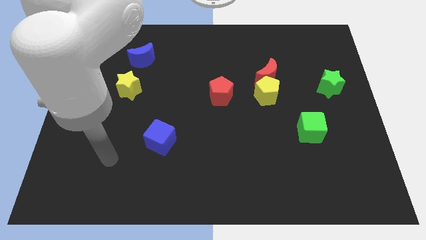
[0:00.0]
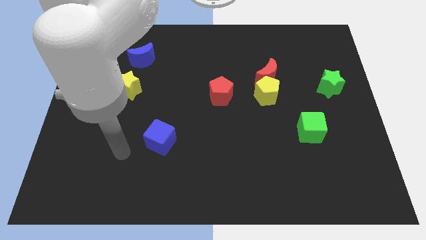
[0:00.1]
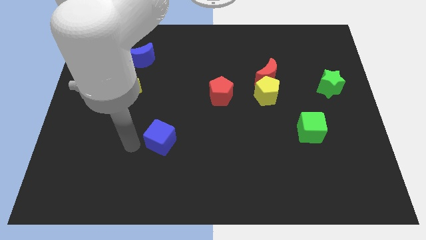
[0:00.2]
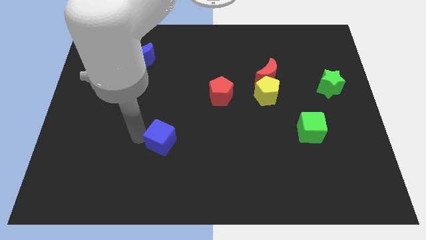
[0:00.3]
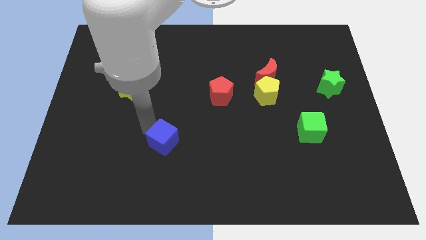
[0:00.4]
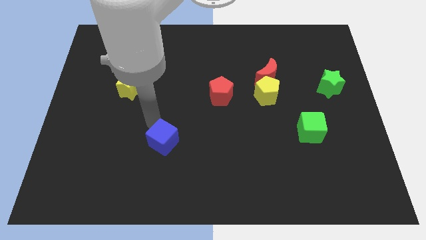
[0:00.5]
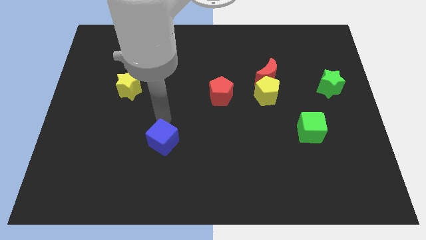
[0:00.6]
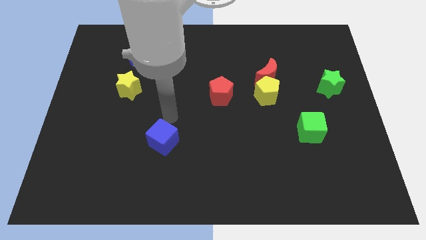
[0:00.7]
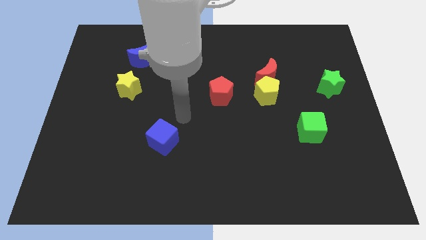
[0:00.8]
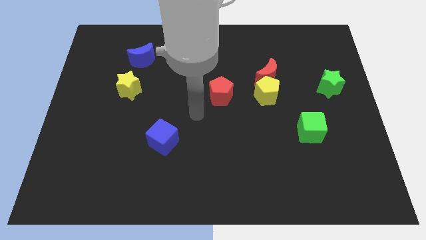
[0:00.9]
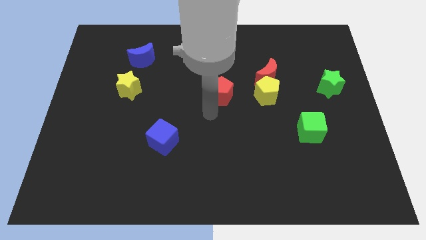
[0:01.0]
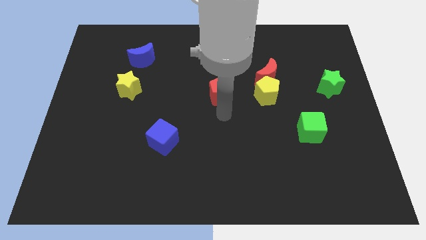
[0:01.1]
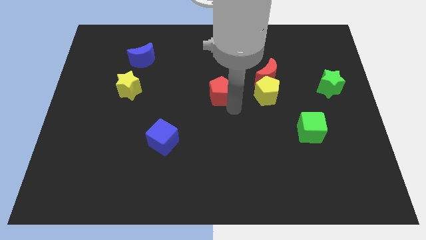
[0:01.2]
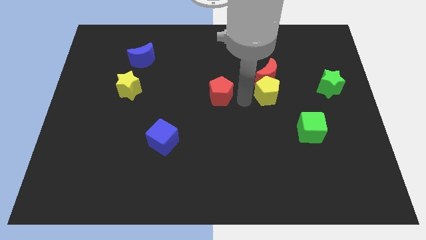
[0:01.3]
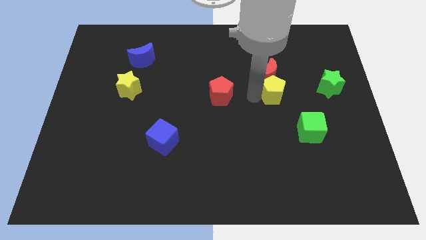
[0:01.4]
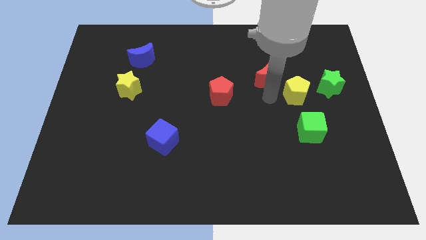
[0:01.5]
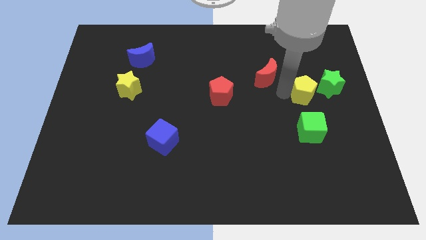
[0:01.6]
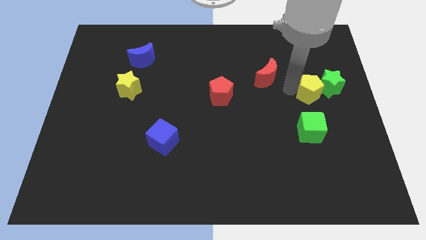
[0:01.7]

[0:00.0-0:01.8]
pull the red moon apart from the yellow pentagon

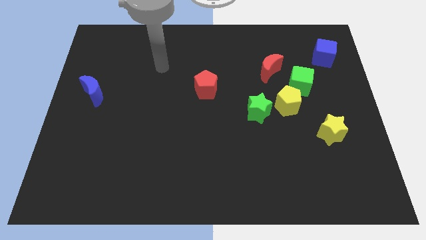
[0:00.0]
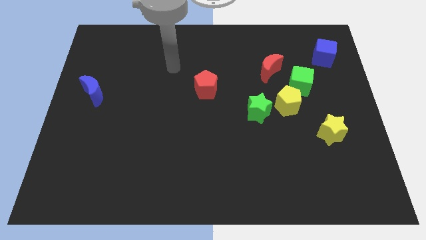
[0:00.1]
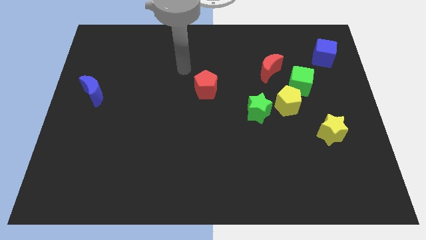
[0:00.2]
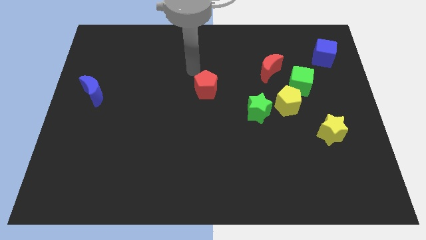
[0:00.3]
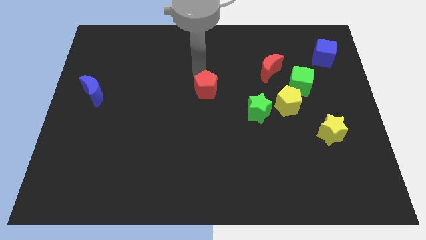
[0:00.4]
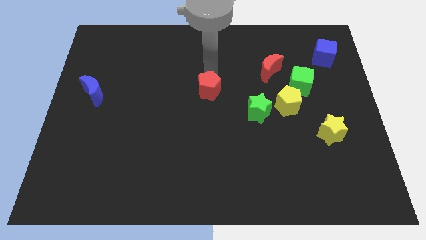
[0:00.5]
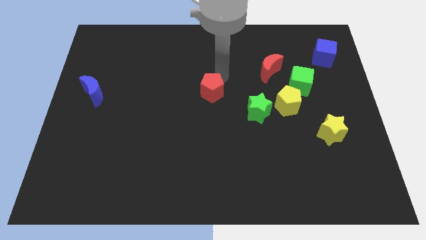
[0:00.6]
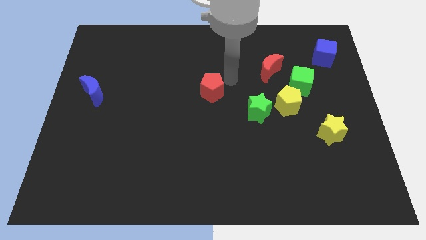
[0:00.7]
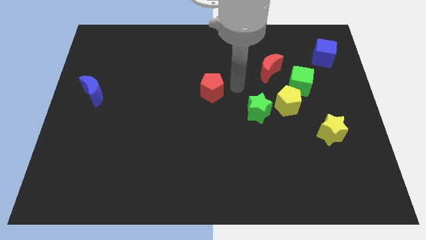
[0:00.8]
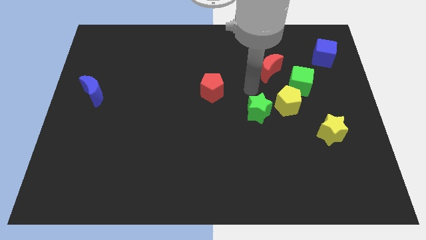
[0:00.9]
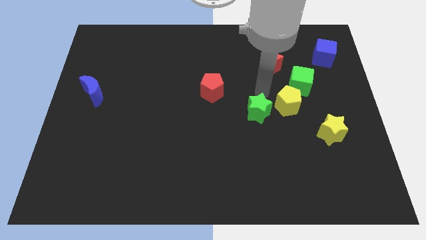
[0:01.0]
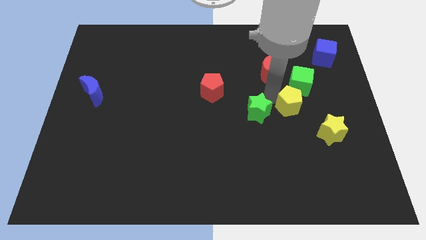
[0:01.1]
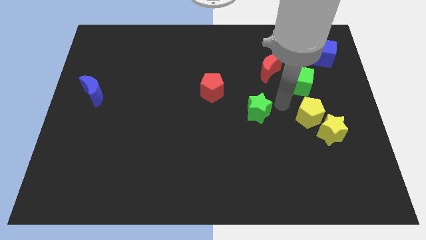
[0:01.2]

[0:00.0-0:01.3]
separate the green star from the yellow pentagon

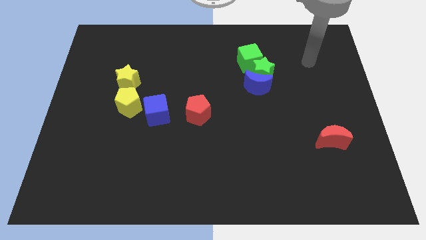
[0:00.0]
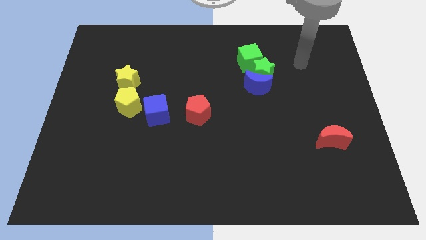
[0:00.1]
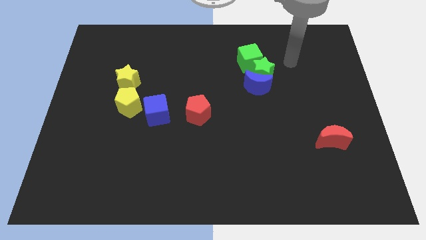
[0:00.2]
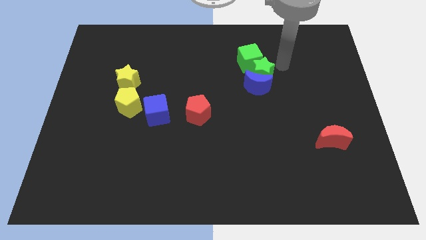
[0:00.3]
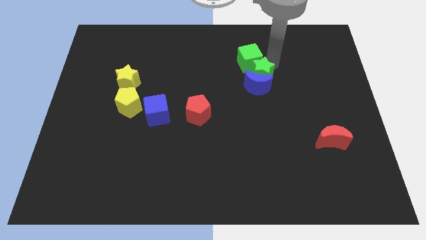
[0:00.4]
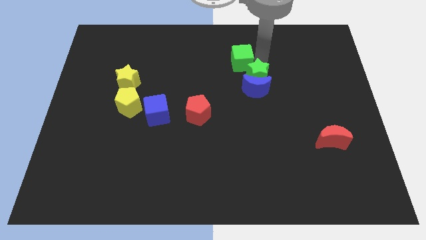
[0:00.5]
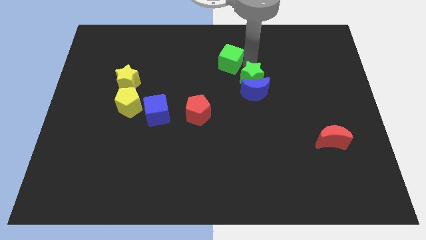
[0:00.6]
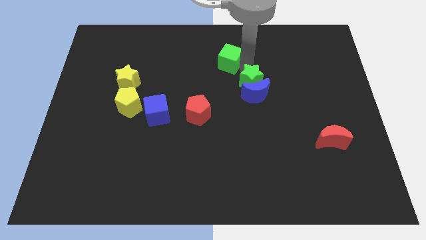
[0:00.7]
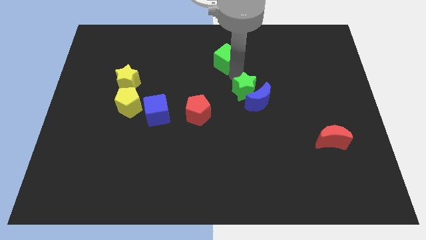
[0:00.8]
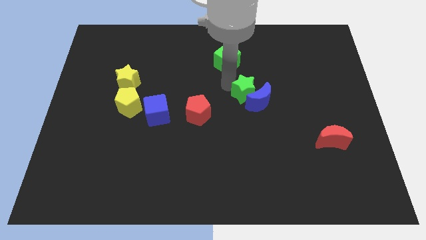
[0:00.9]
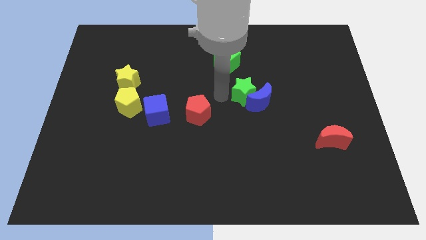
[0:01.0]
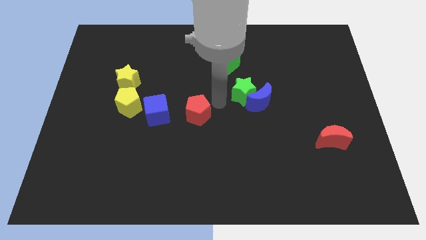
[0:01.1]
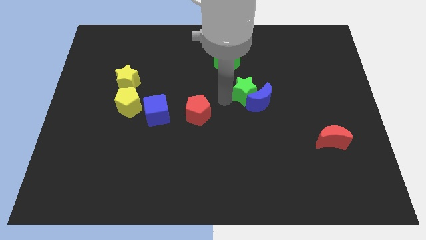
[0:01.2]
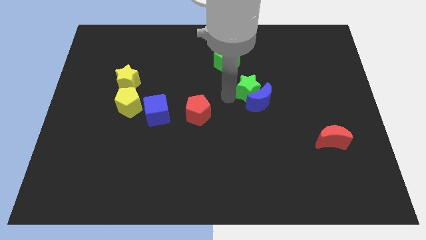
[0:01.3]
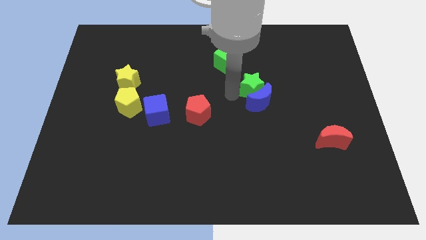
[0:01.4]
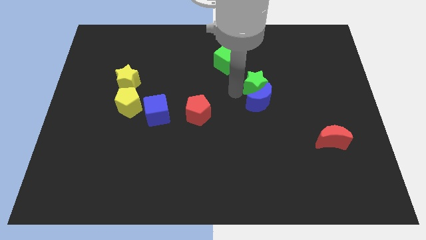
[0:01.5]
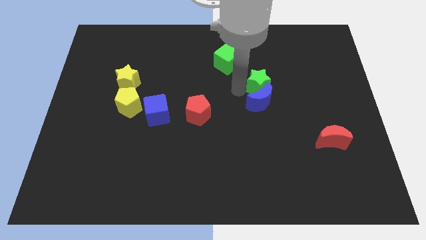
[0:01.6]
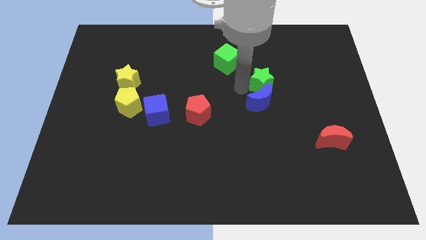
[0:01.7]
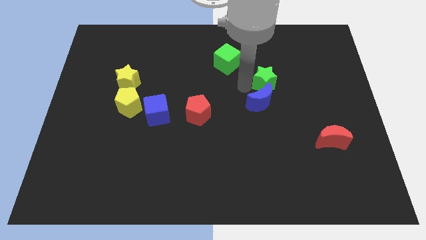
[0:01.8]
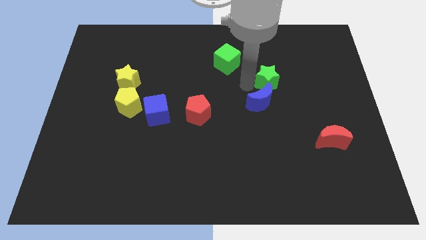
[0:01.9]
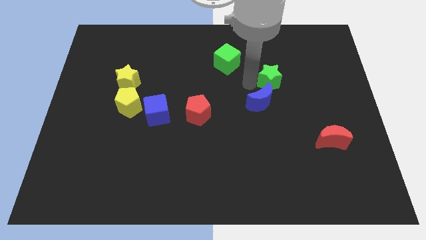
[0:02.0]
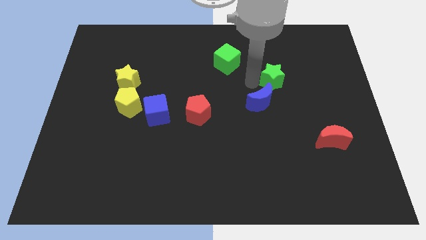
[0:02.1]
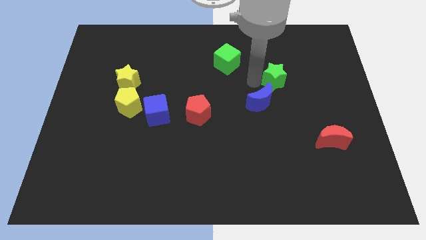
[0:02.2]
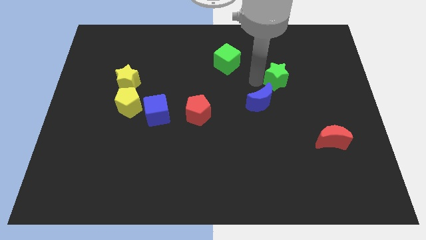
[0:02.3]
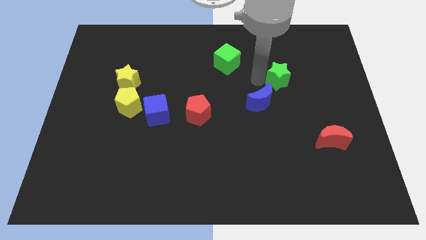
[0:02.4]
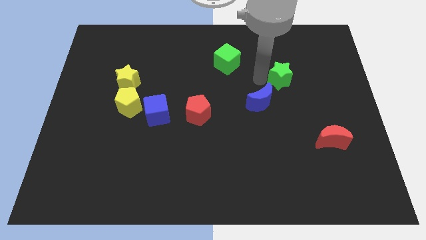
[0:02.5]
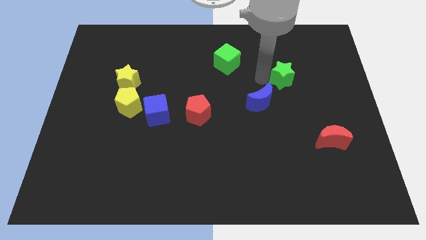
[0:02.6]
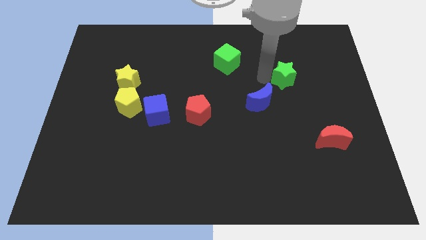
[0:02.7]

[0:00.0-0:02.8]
separate the green star from the blue moon and green cube

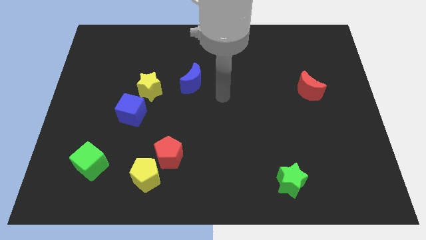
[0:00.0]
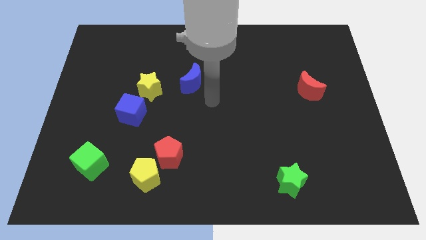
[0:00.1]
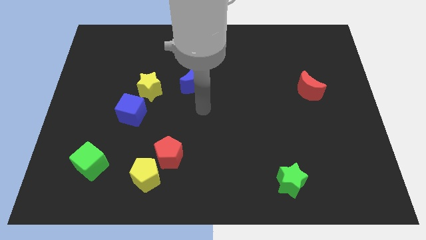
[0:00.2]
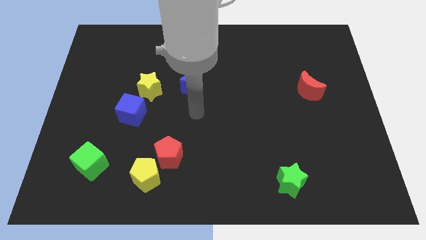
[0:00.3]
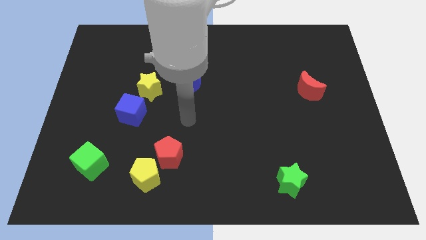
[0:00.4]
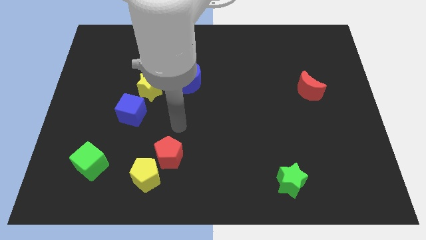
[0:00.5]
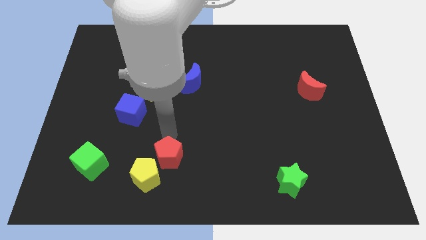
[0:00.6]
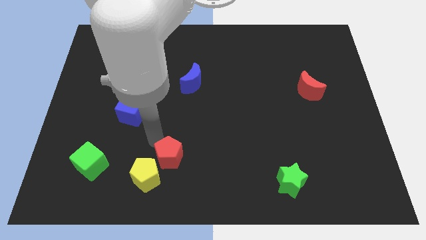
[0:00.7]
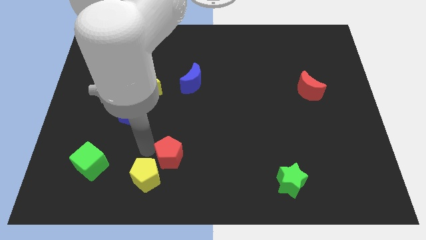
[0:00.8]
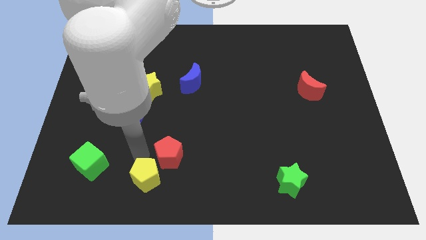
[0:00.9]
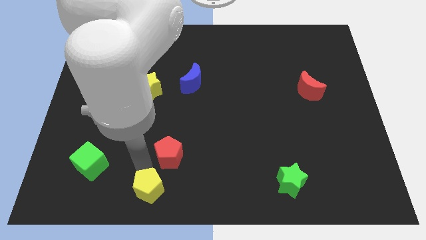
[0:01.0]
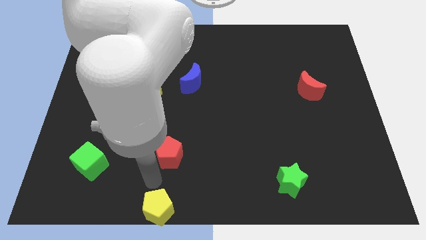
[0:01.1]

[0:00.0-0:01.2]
pull the red pentagon apart from the yellow pentagon

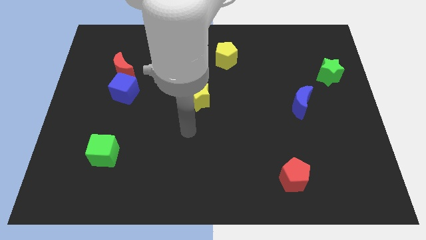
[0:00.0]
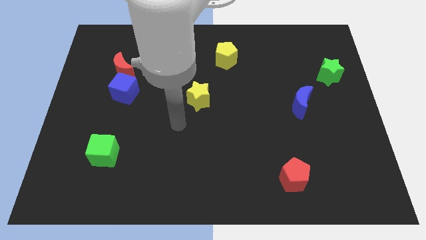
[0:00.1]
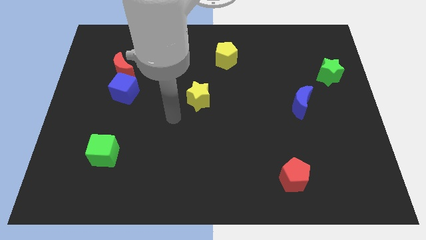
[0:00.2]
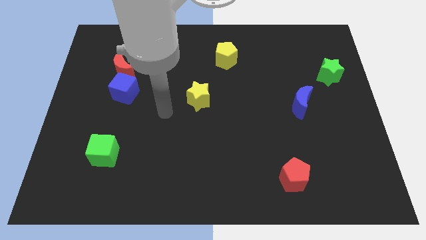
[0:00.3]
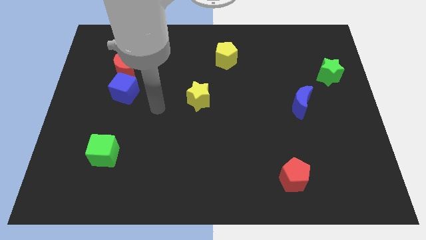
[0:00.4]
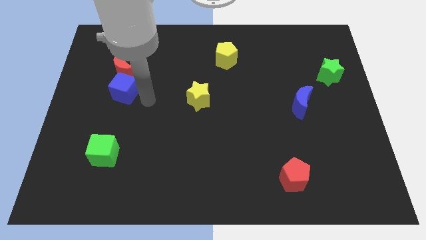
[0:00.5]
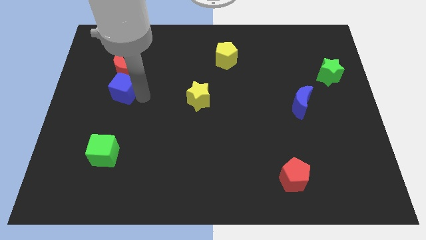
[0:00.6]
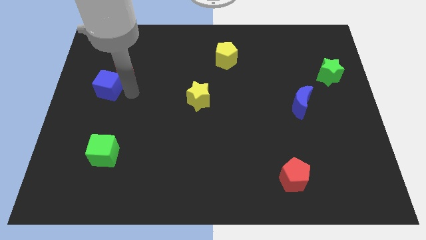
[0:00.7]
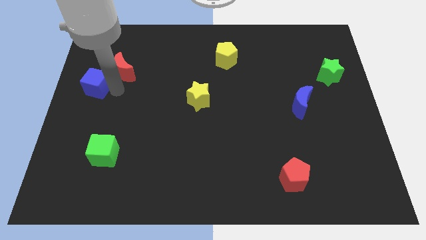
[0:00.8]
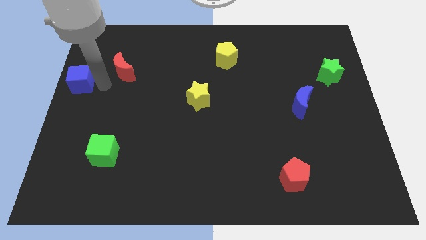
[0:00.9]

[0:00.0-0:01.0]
pull the red moon apart from the blue cube

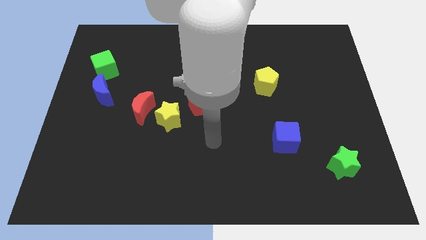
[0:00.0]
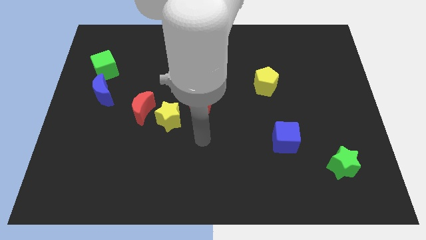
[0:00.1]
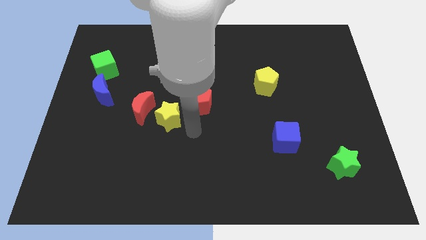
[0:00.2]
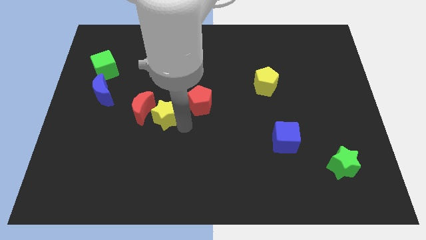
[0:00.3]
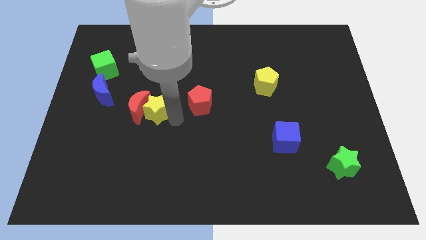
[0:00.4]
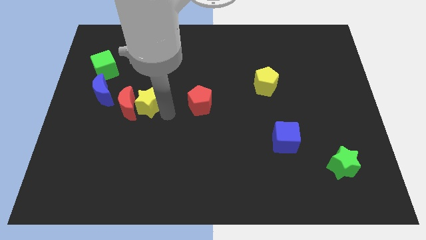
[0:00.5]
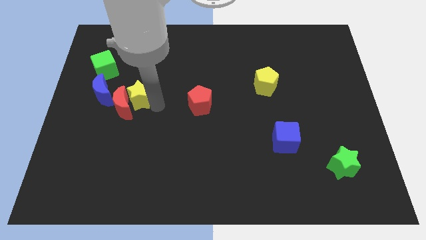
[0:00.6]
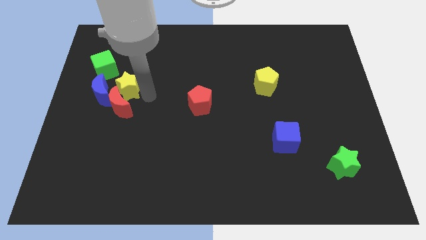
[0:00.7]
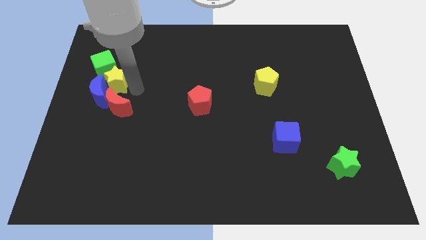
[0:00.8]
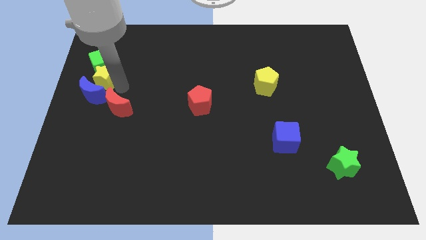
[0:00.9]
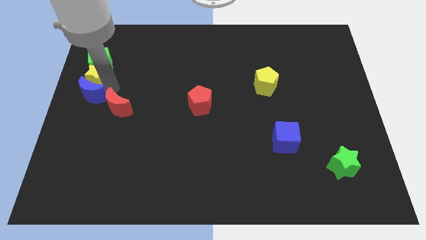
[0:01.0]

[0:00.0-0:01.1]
separate the red moon from the yellow star
